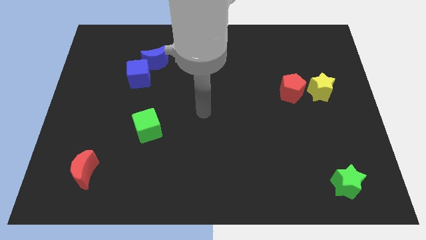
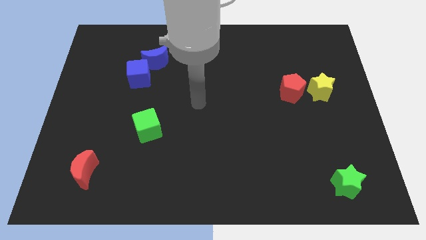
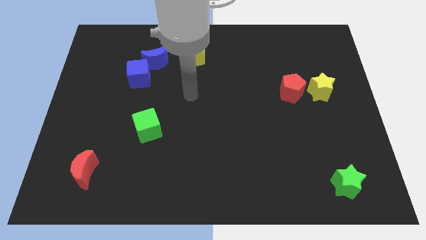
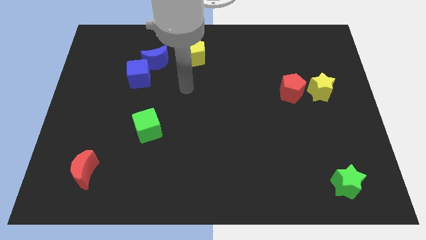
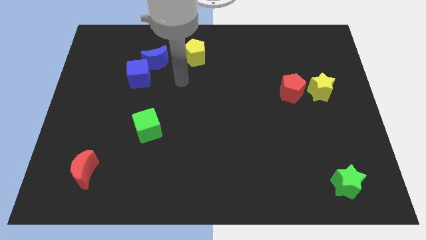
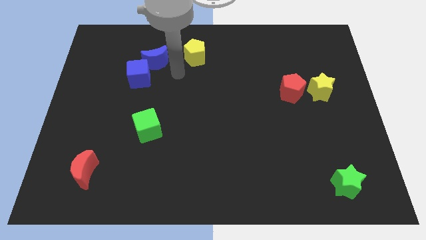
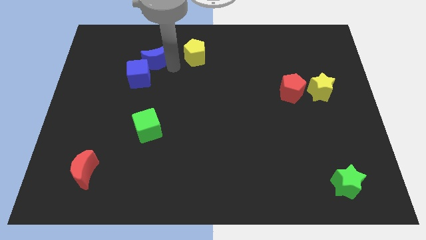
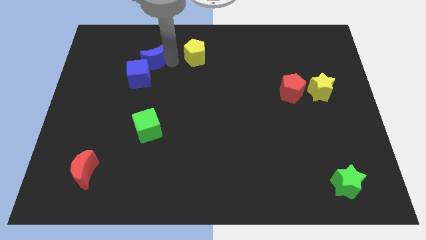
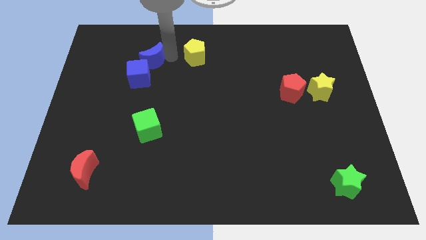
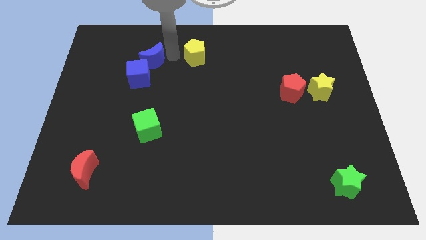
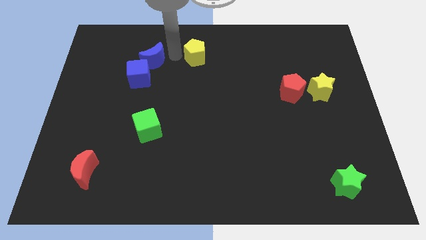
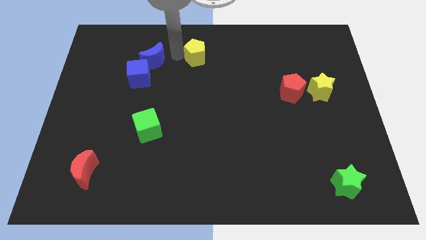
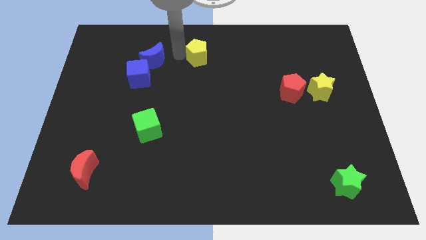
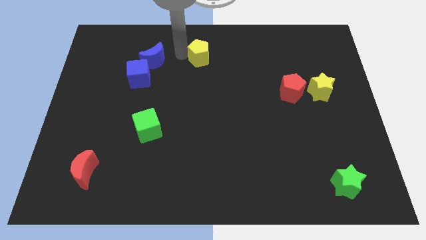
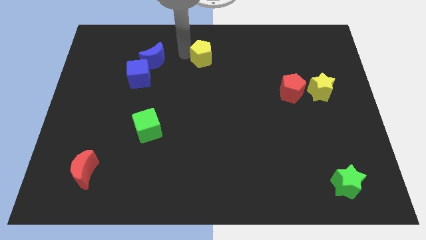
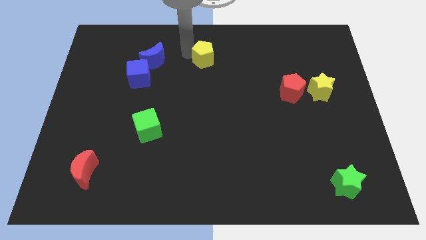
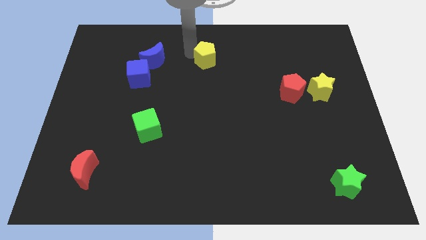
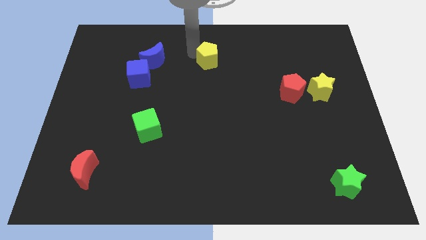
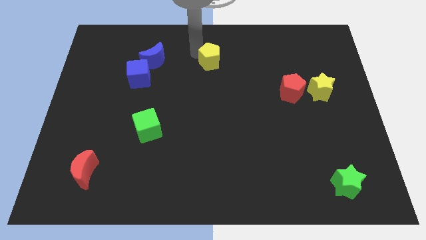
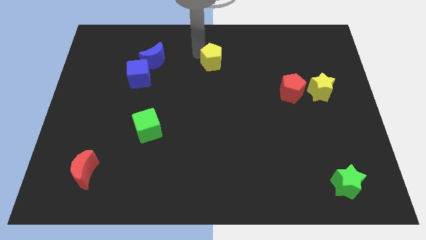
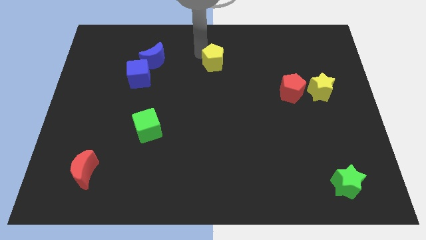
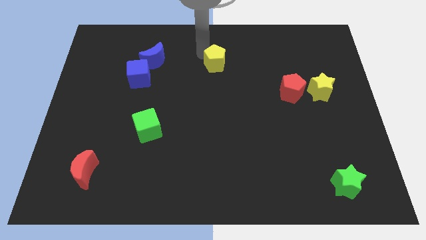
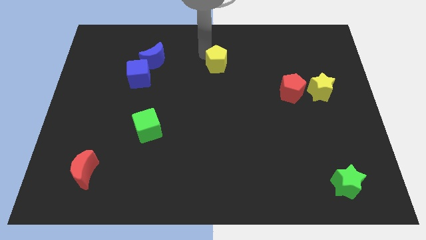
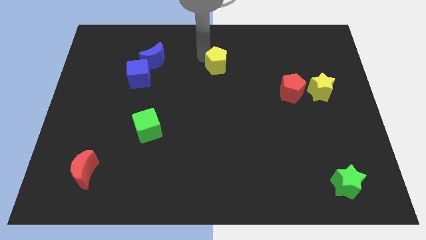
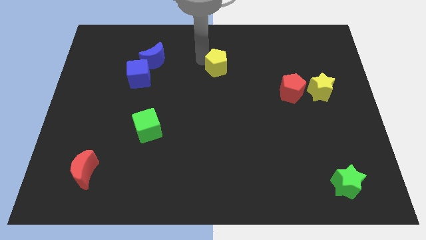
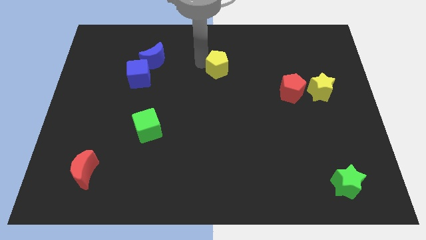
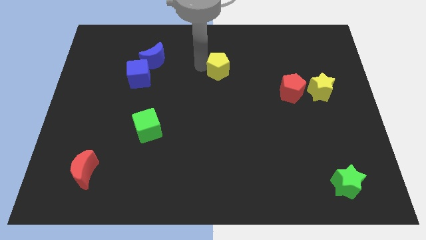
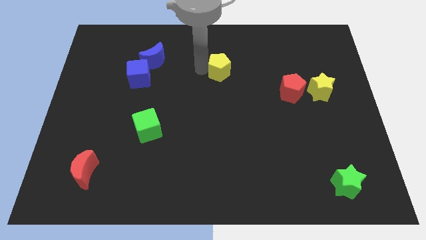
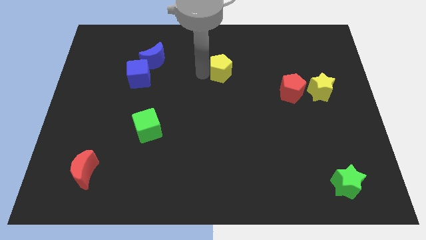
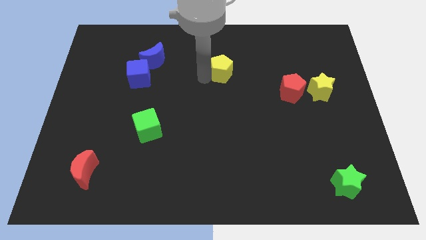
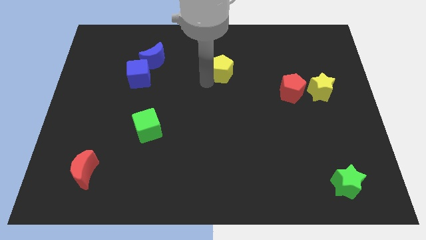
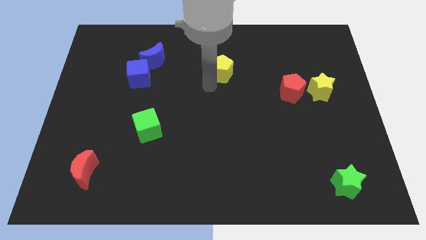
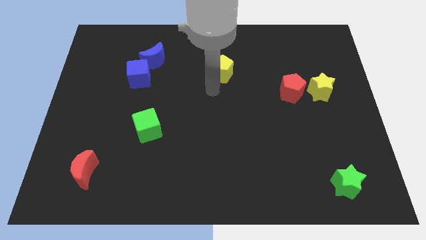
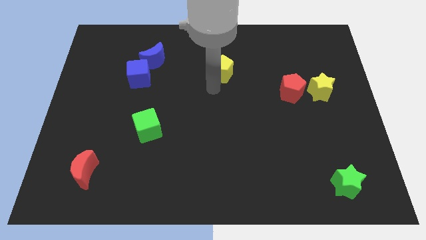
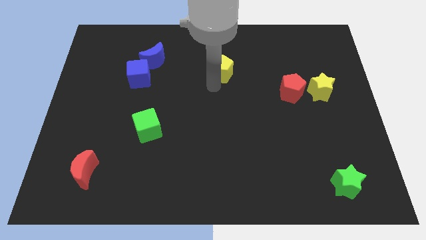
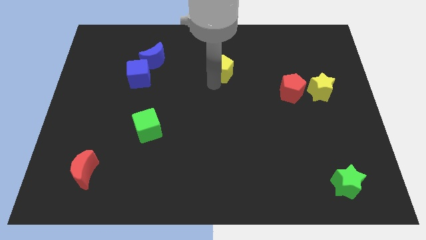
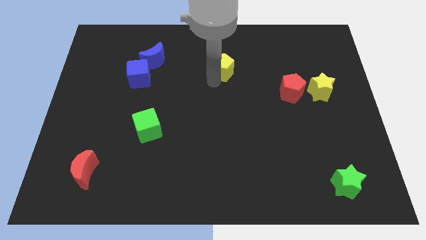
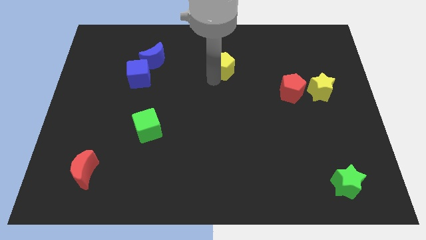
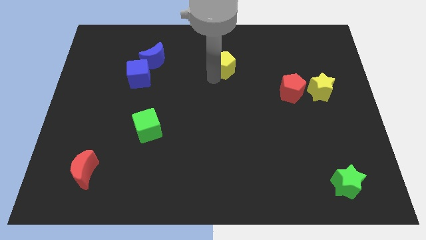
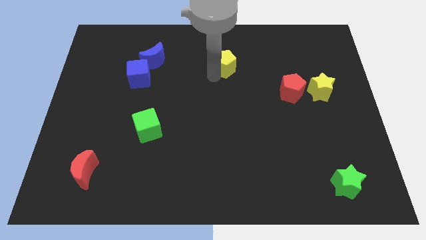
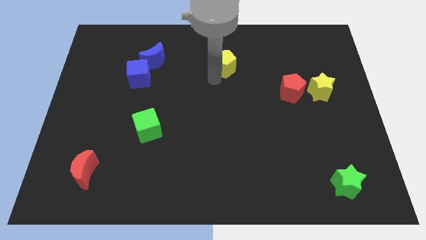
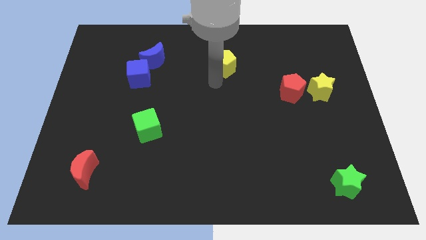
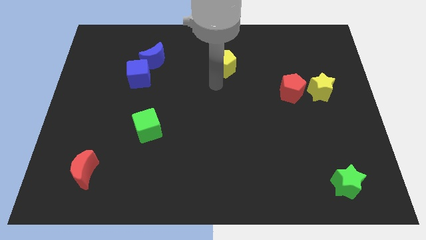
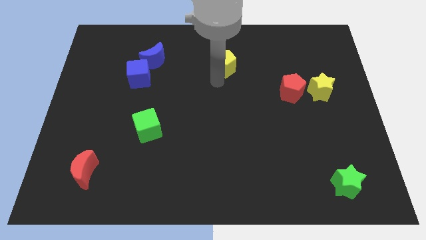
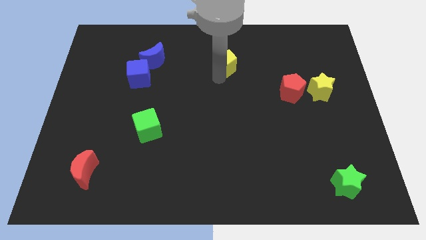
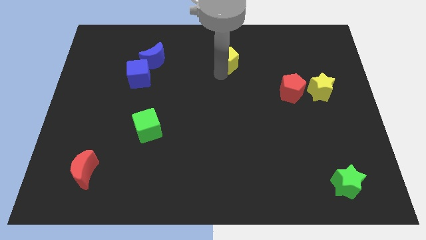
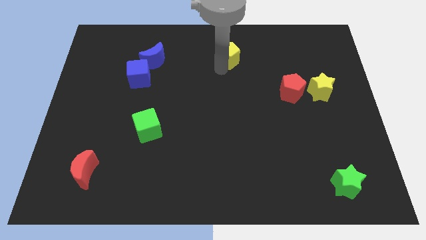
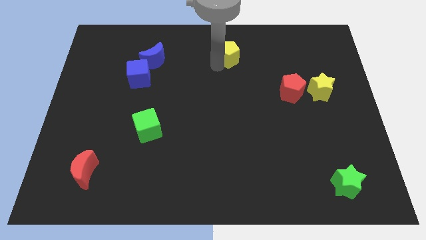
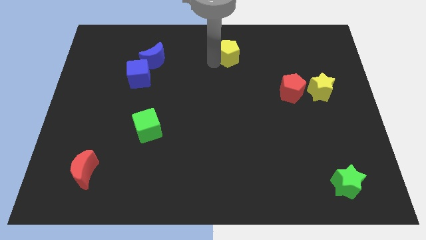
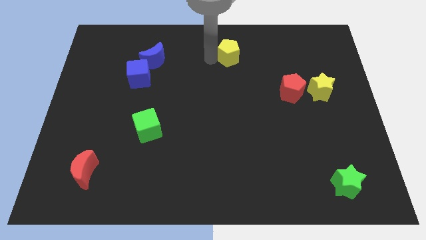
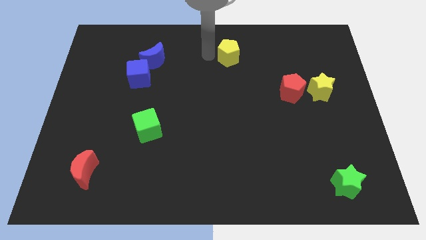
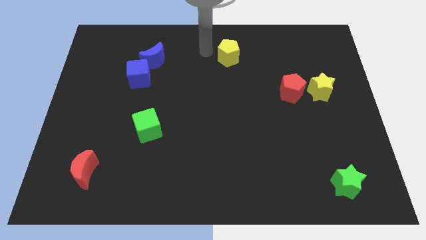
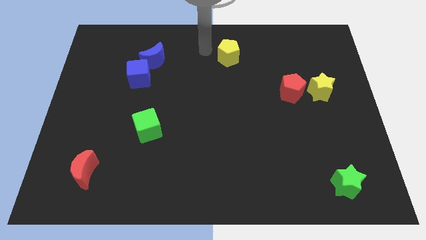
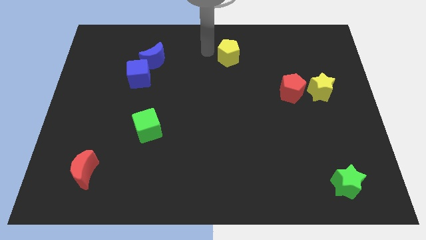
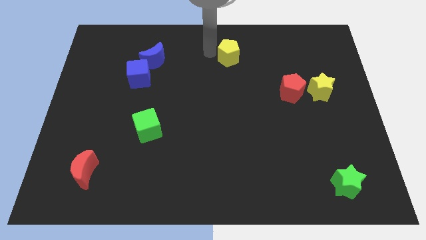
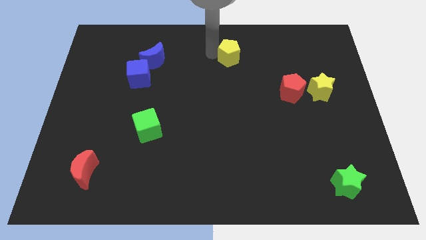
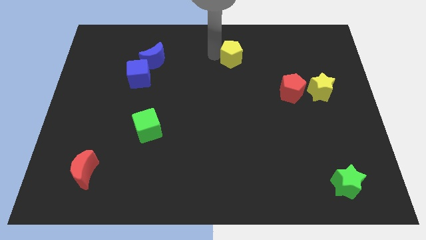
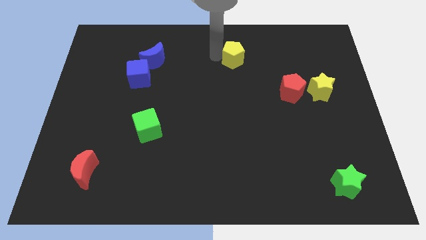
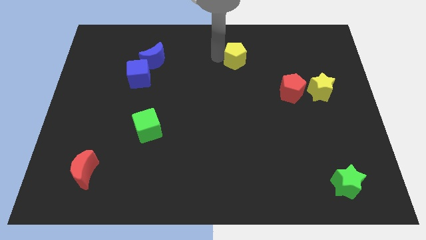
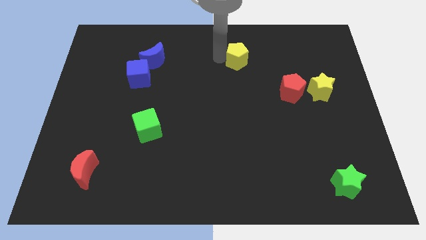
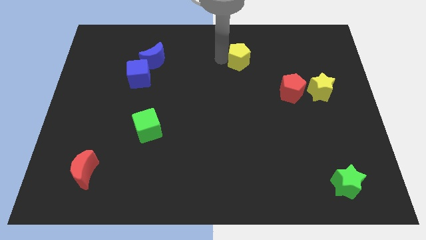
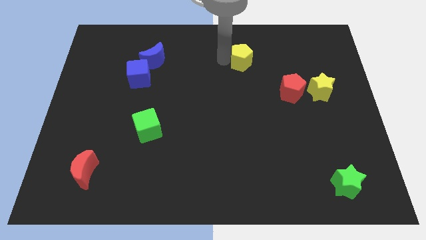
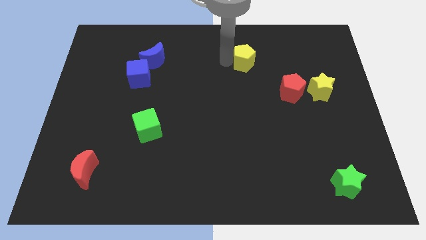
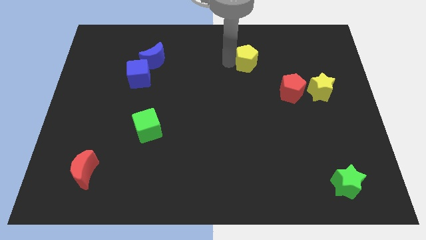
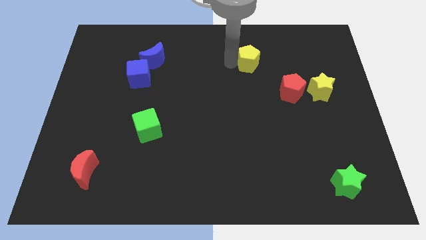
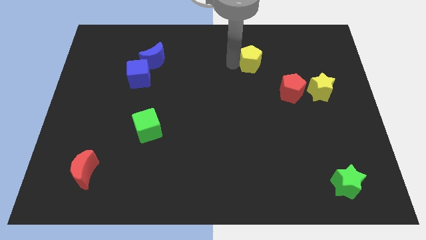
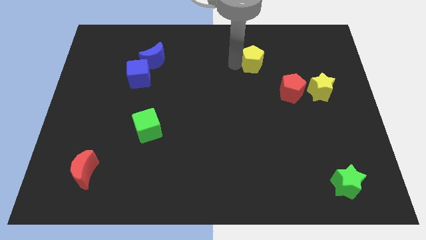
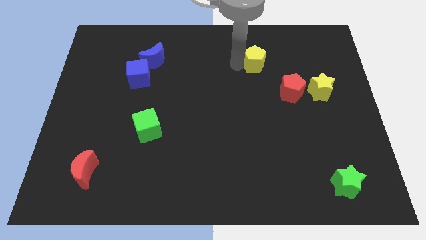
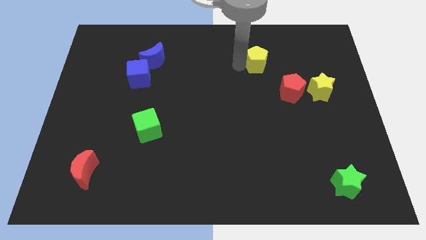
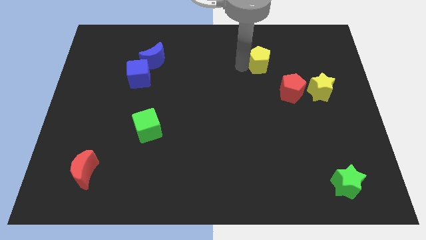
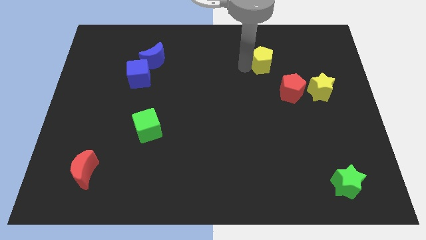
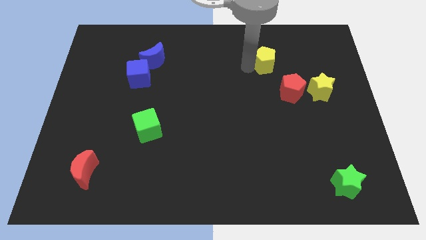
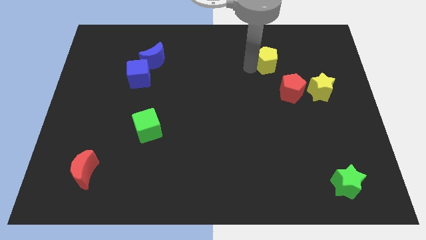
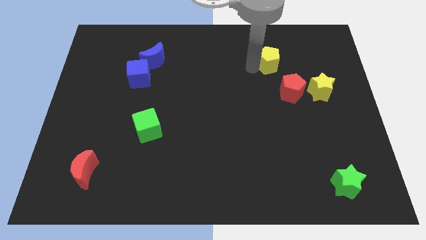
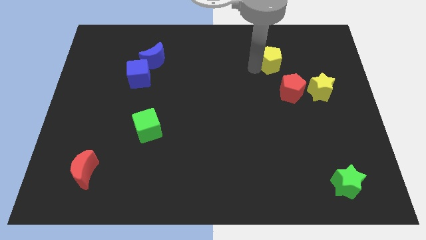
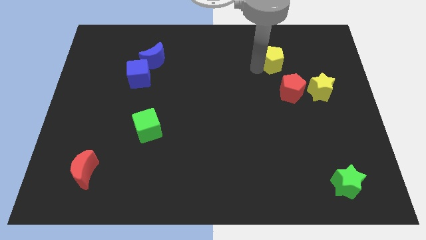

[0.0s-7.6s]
slide the yellow pentagon right

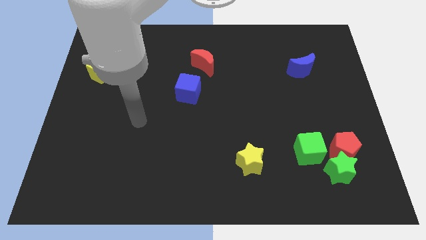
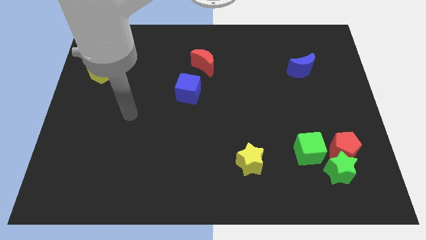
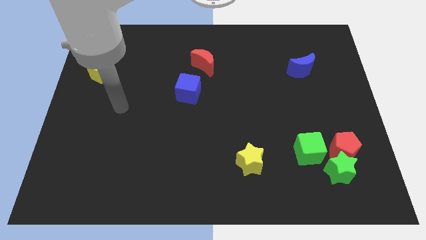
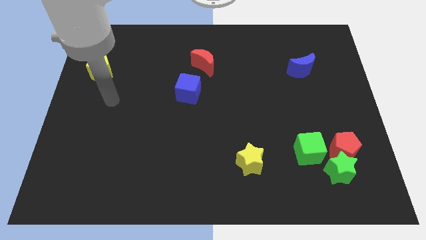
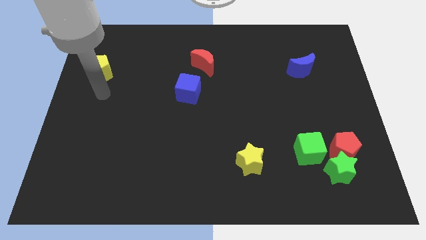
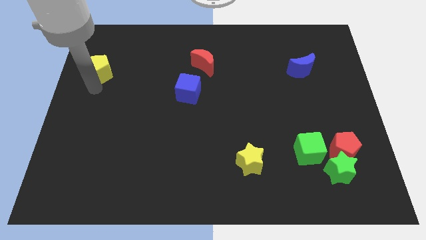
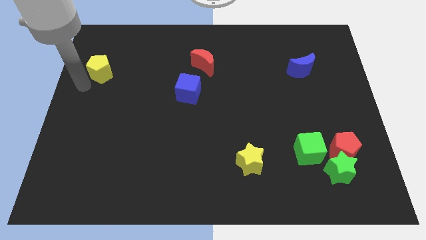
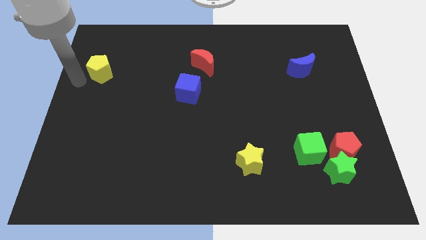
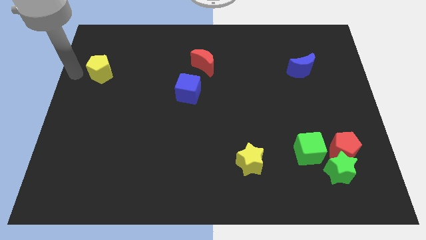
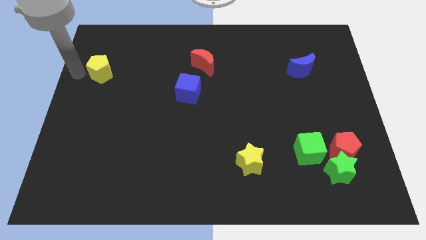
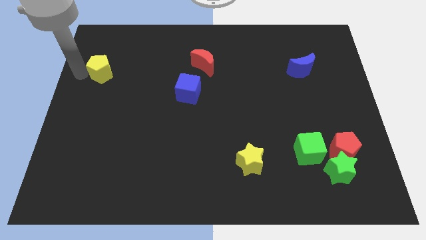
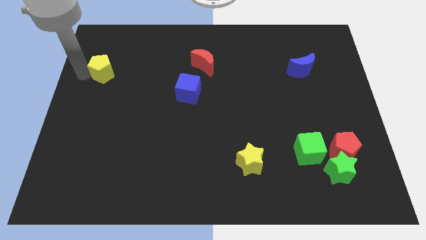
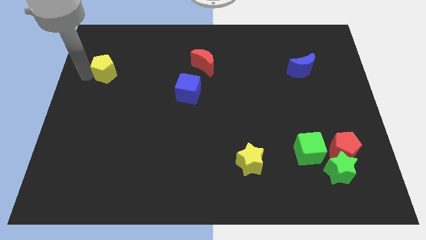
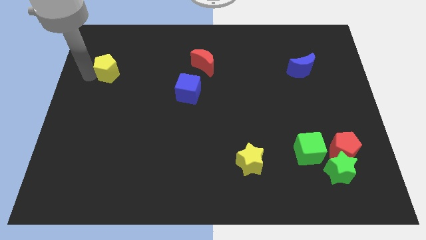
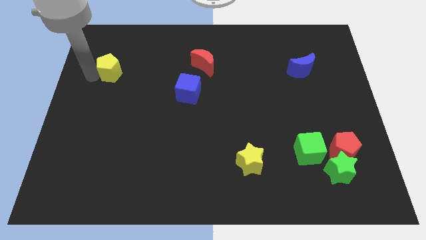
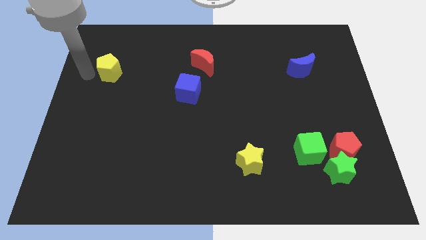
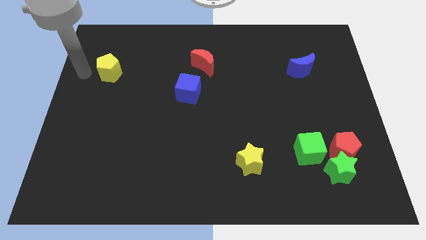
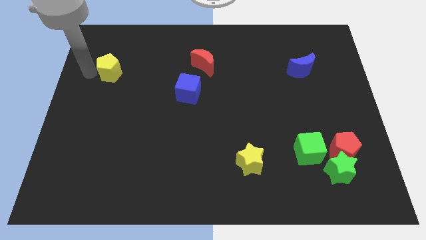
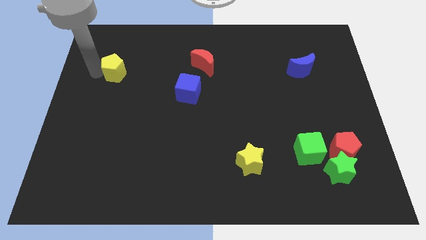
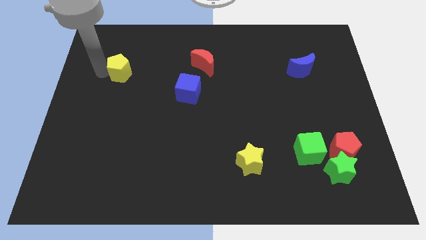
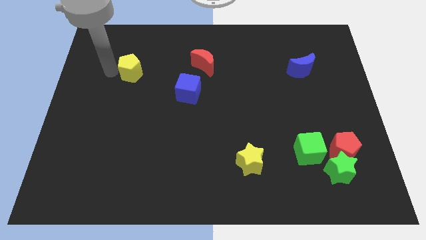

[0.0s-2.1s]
move the yellow pentagon right a little
